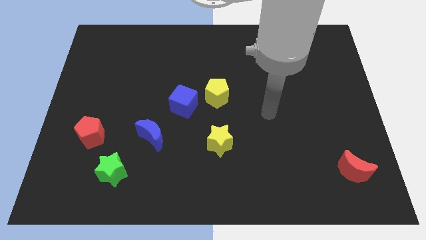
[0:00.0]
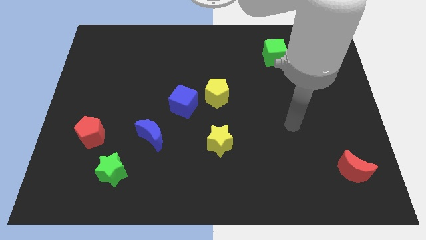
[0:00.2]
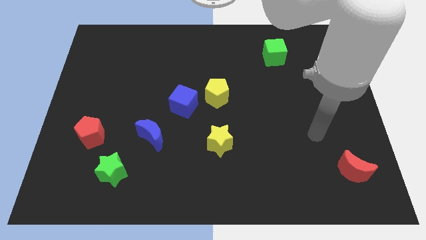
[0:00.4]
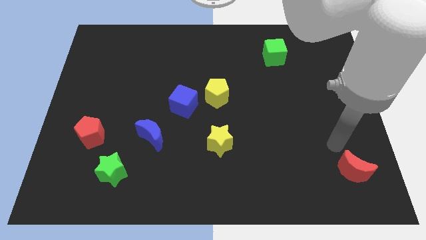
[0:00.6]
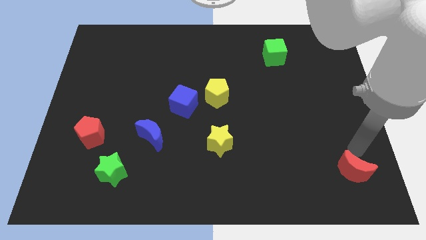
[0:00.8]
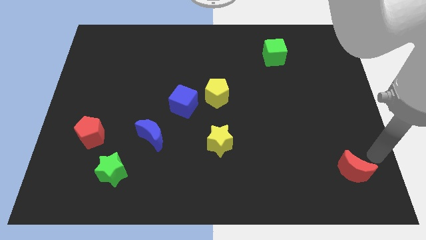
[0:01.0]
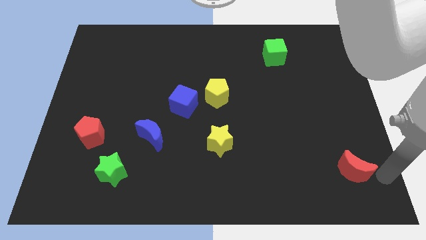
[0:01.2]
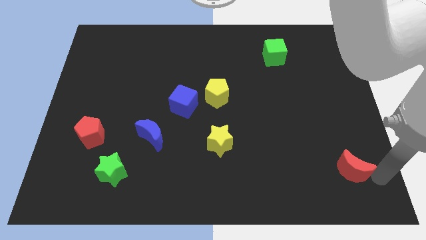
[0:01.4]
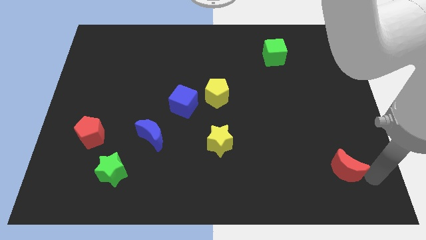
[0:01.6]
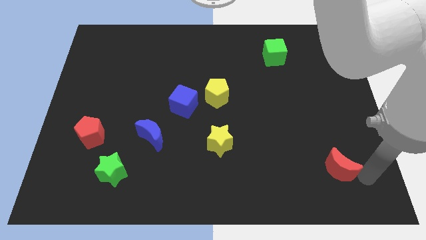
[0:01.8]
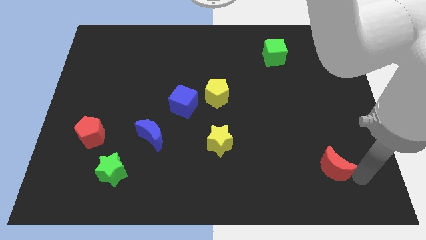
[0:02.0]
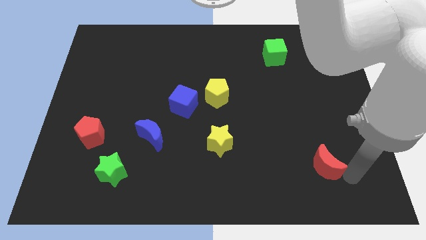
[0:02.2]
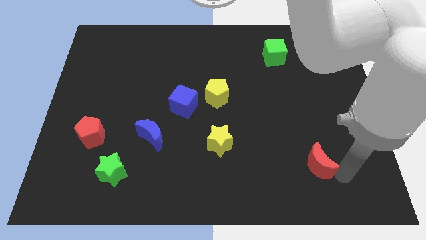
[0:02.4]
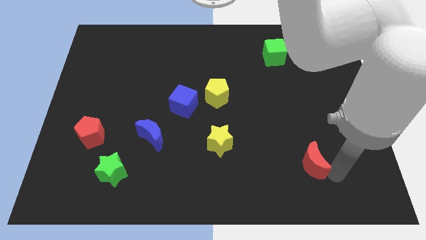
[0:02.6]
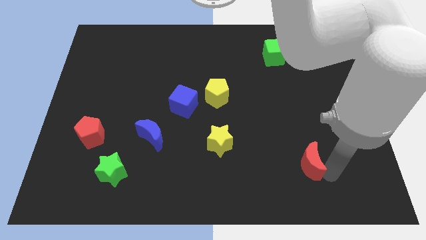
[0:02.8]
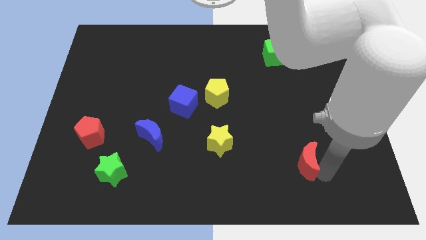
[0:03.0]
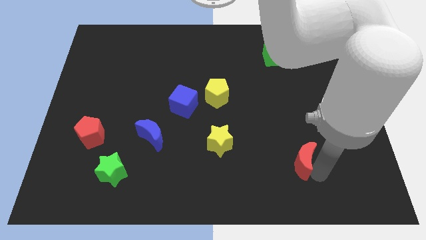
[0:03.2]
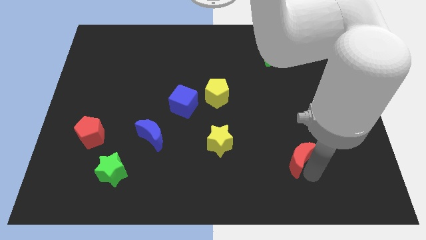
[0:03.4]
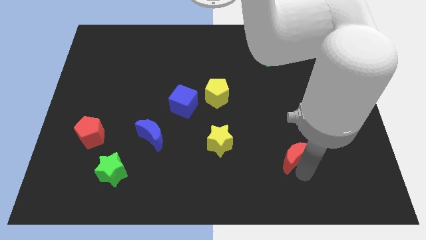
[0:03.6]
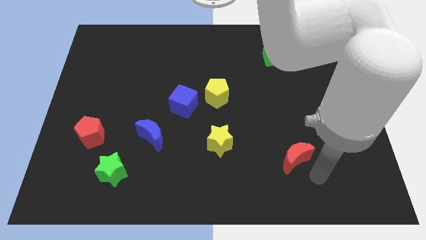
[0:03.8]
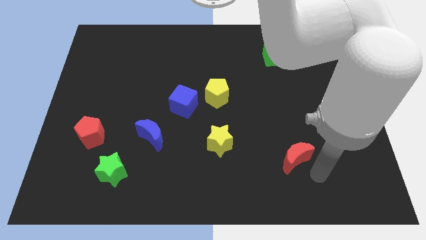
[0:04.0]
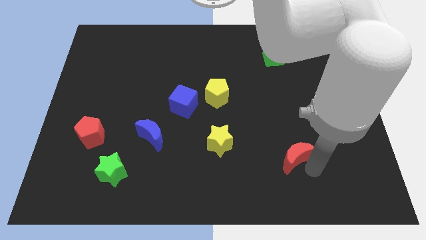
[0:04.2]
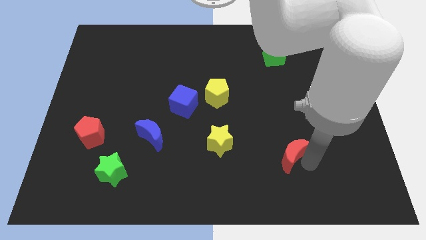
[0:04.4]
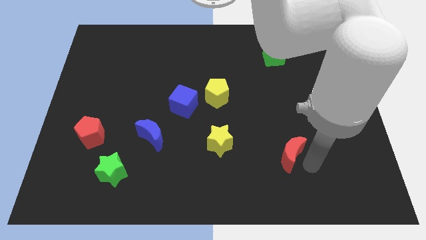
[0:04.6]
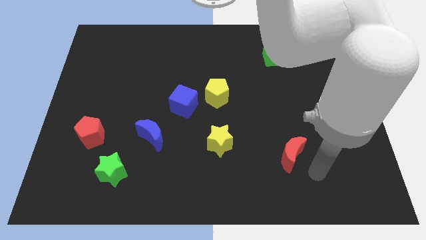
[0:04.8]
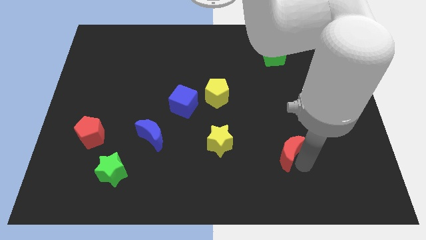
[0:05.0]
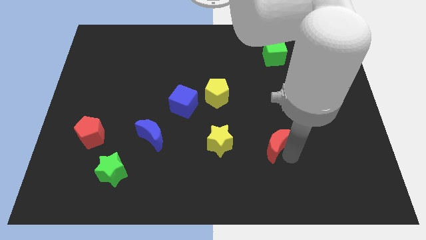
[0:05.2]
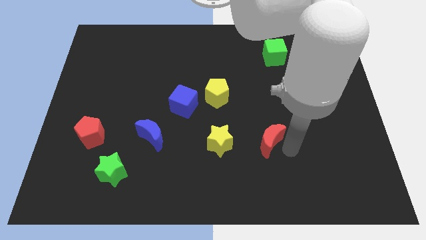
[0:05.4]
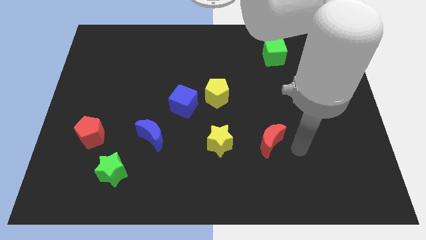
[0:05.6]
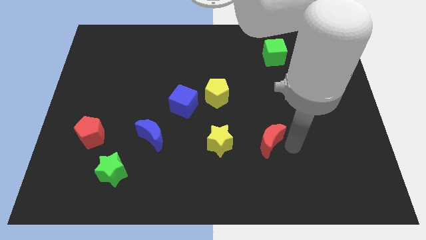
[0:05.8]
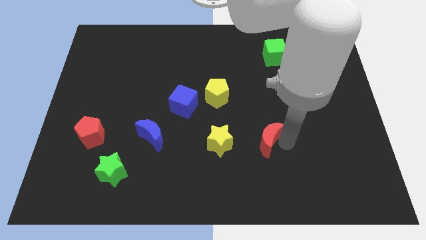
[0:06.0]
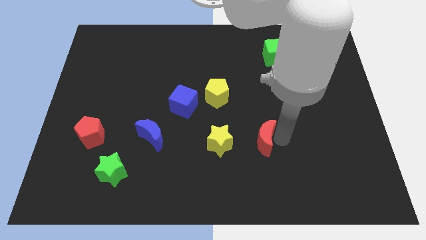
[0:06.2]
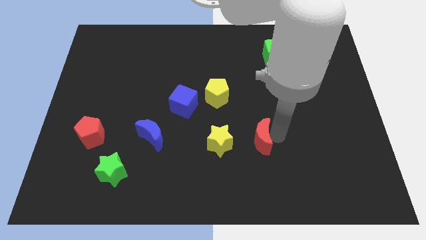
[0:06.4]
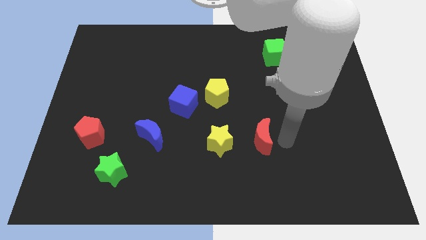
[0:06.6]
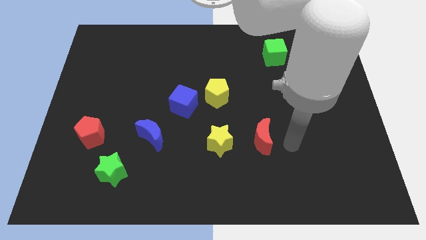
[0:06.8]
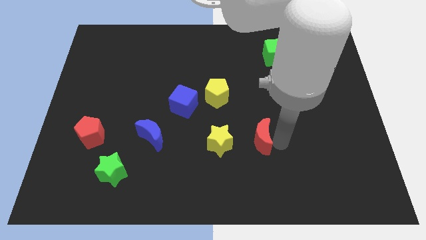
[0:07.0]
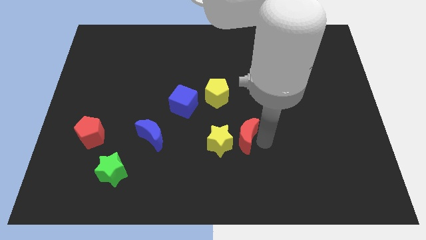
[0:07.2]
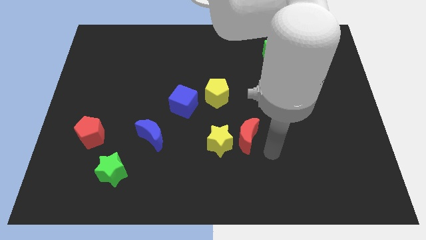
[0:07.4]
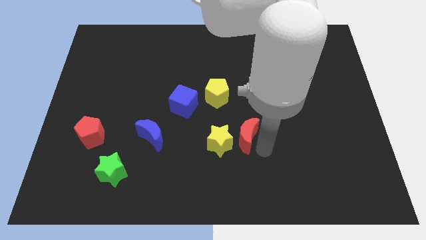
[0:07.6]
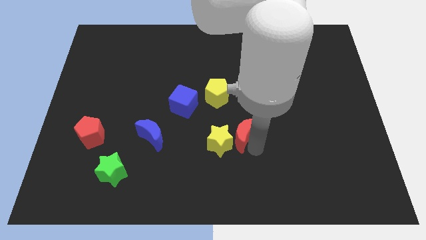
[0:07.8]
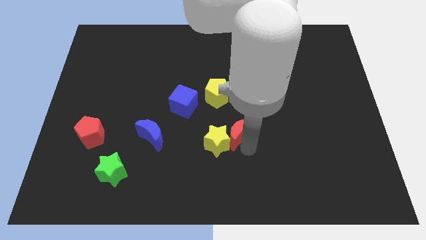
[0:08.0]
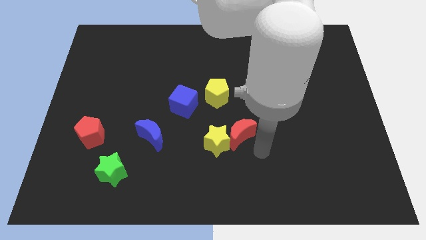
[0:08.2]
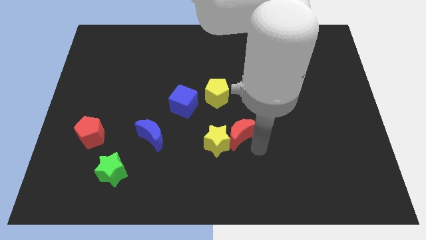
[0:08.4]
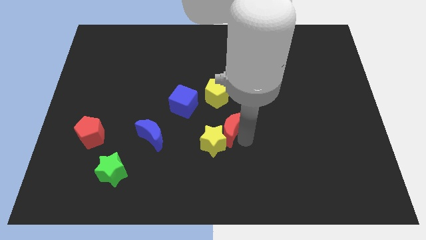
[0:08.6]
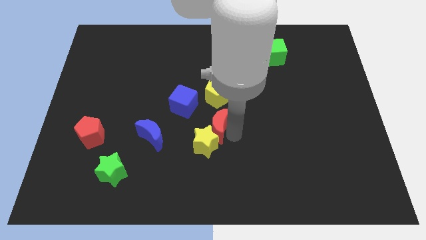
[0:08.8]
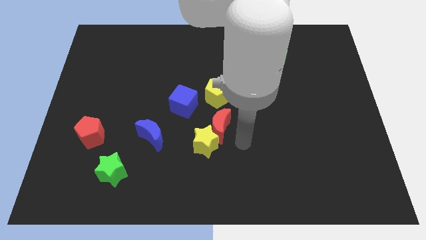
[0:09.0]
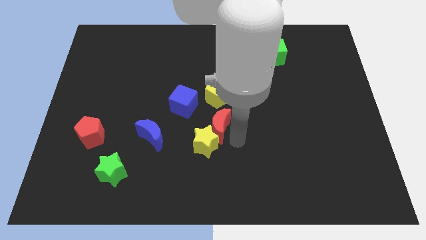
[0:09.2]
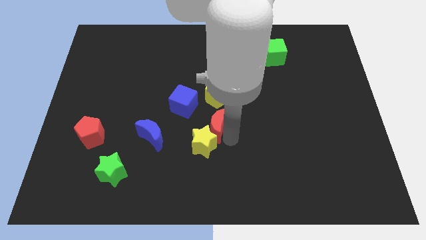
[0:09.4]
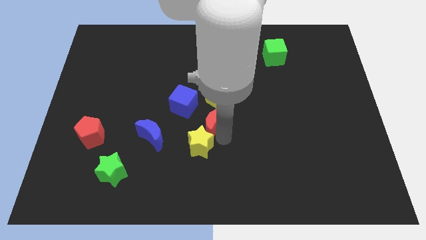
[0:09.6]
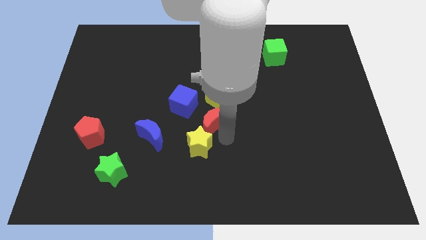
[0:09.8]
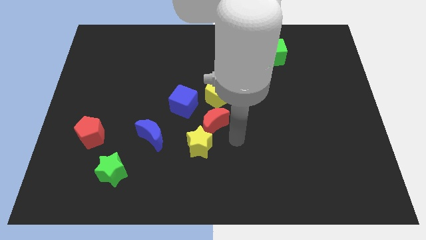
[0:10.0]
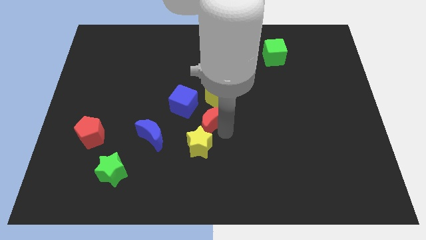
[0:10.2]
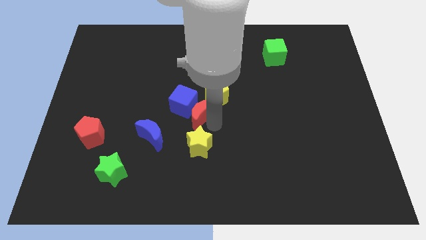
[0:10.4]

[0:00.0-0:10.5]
push the red moon towards the blue cube

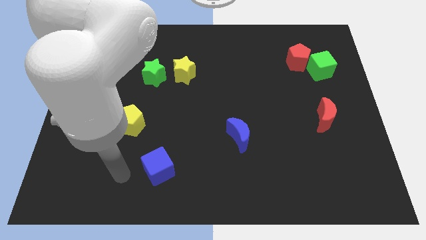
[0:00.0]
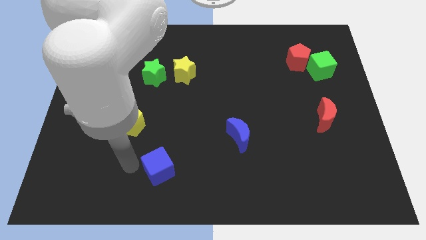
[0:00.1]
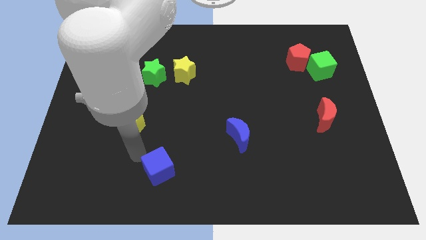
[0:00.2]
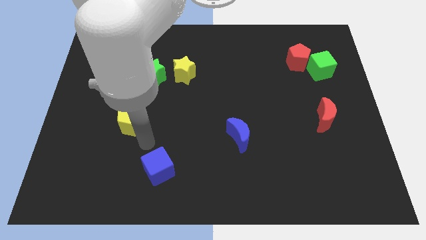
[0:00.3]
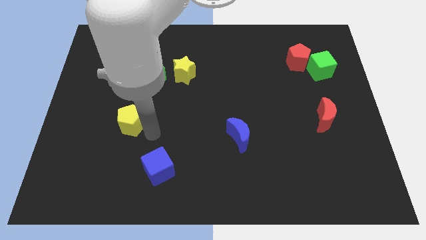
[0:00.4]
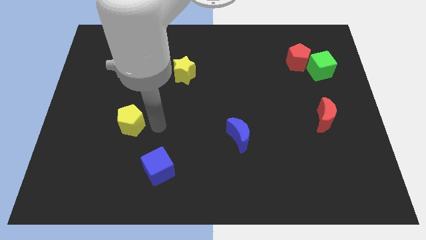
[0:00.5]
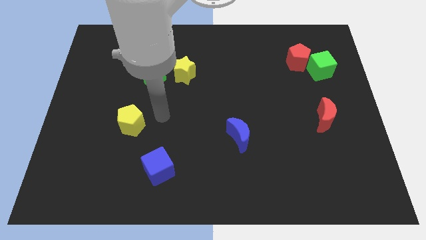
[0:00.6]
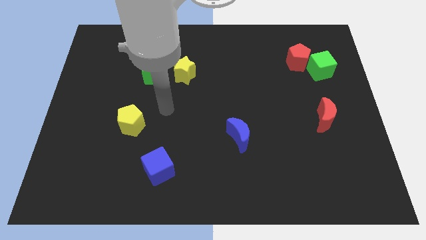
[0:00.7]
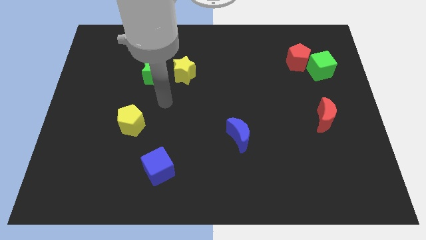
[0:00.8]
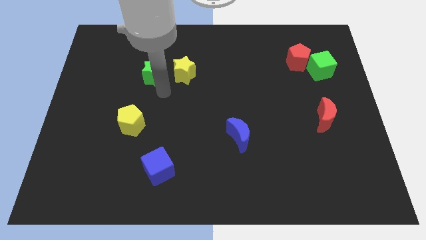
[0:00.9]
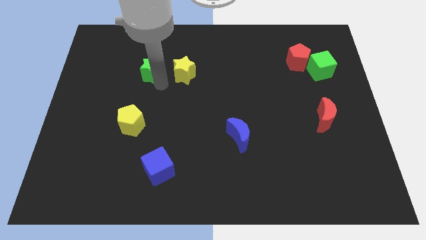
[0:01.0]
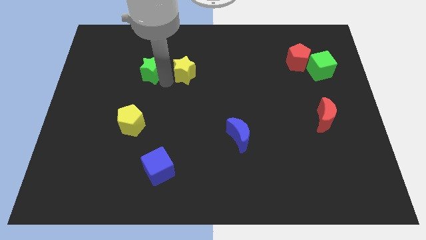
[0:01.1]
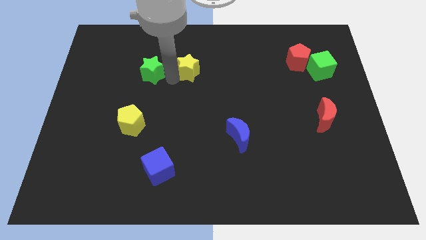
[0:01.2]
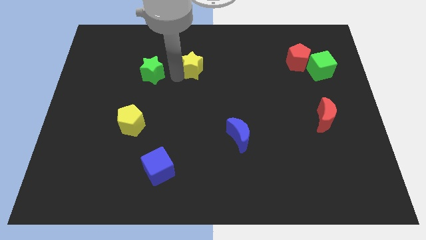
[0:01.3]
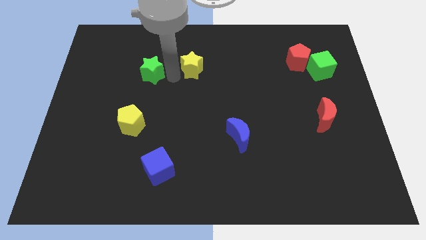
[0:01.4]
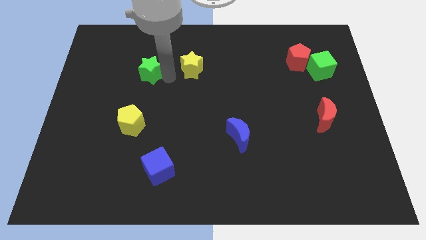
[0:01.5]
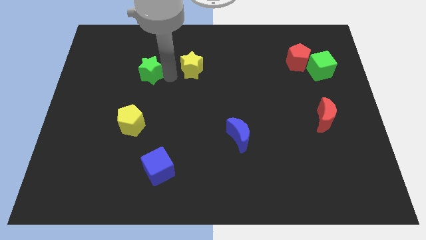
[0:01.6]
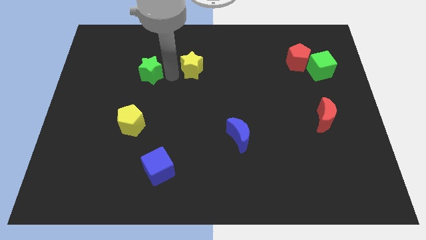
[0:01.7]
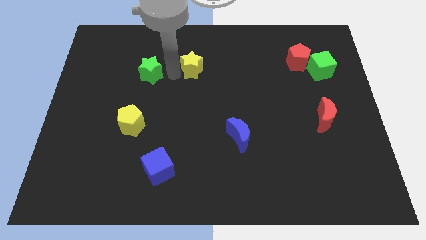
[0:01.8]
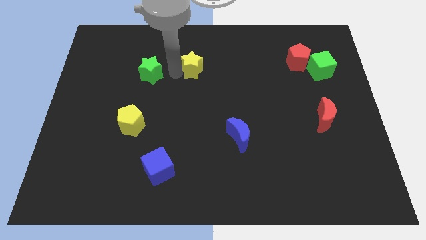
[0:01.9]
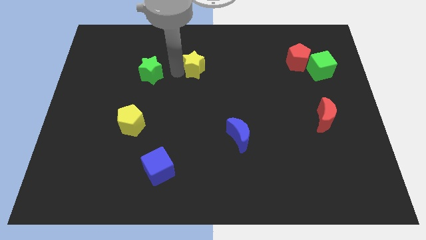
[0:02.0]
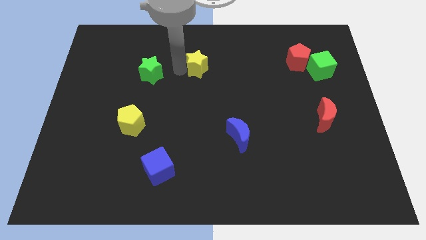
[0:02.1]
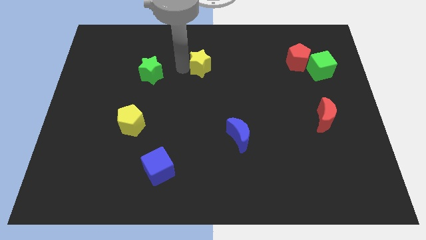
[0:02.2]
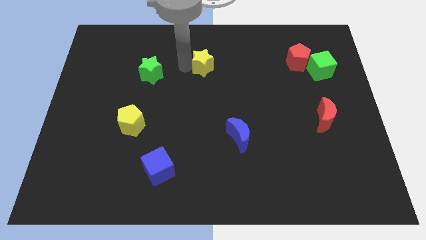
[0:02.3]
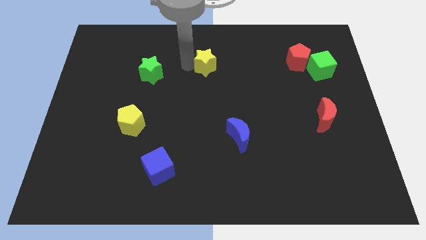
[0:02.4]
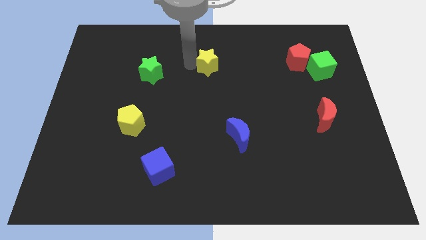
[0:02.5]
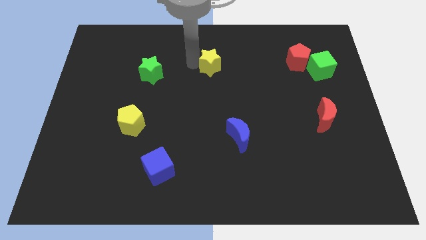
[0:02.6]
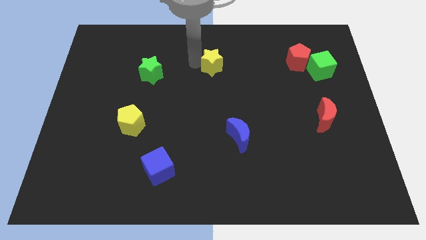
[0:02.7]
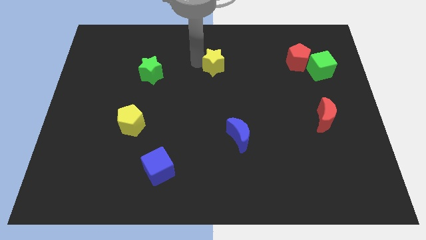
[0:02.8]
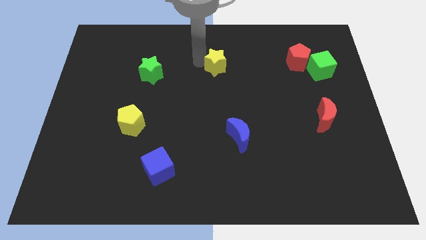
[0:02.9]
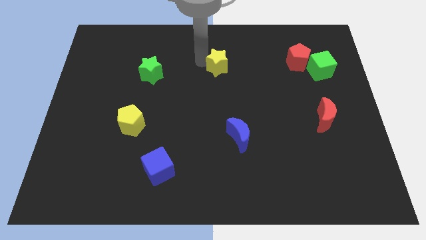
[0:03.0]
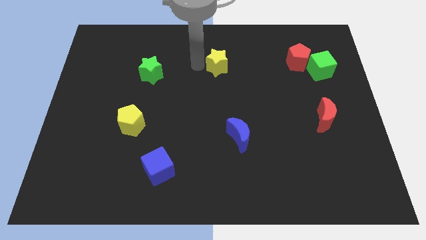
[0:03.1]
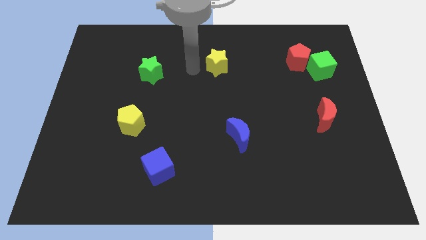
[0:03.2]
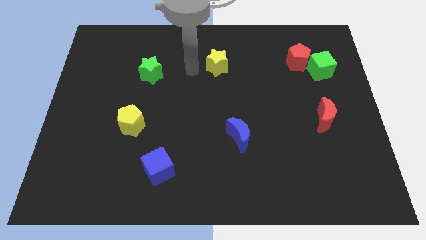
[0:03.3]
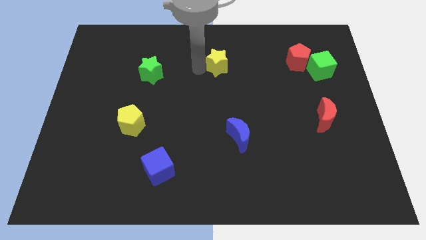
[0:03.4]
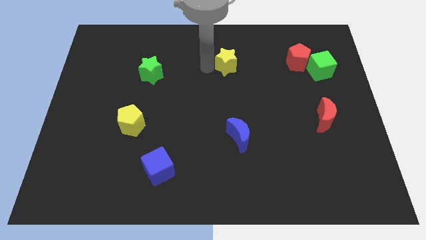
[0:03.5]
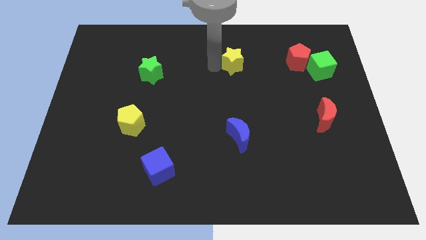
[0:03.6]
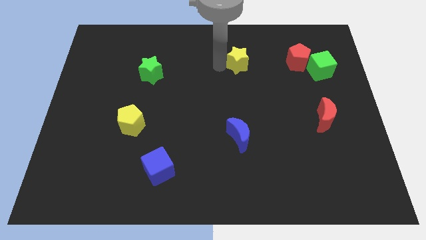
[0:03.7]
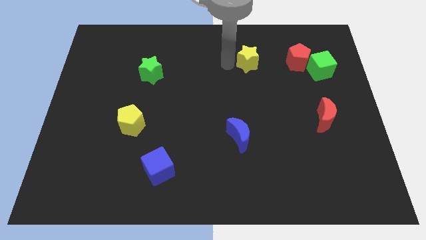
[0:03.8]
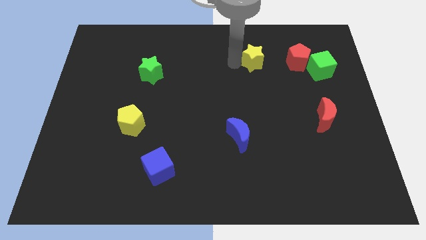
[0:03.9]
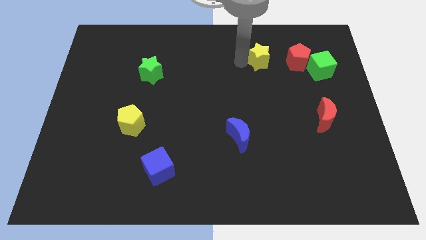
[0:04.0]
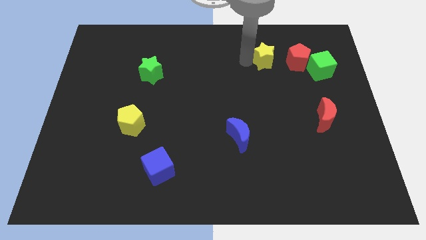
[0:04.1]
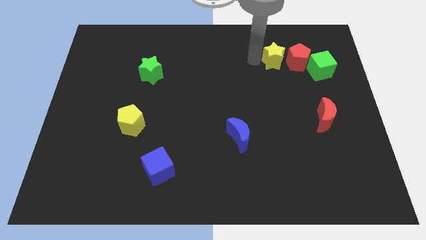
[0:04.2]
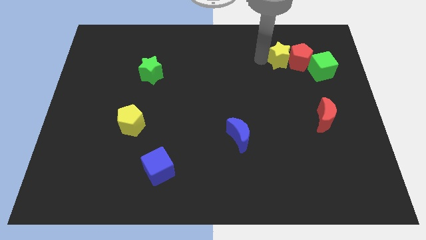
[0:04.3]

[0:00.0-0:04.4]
put the yellow star close to the red pentagon
